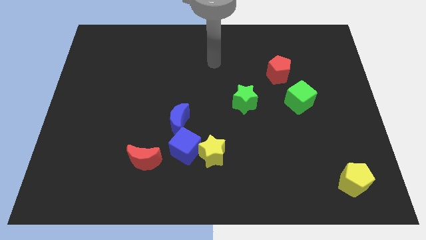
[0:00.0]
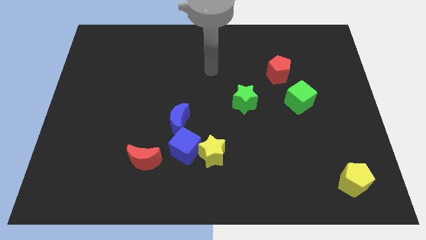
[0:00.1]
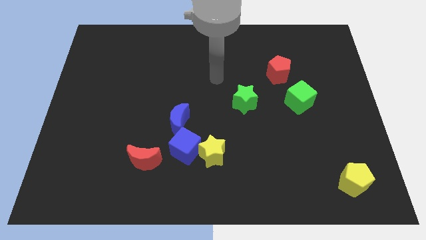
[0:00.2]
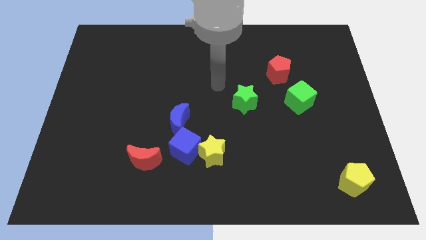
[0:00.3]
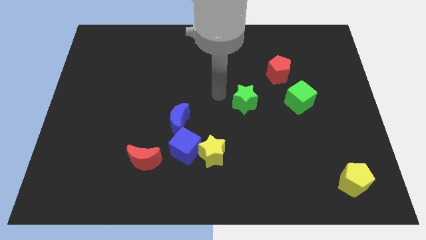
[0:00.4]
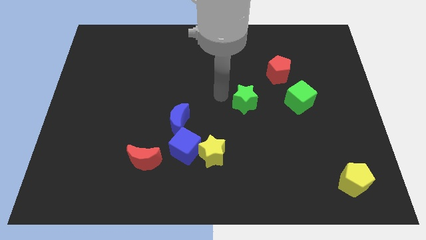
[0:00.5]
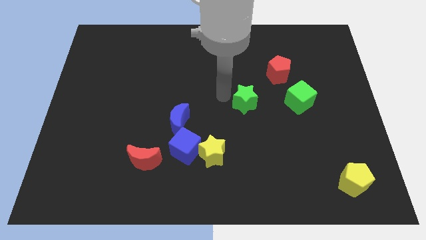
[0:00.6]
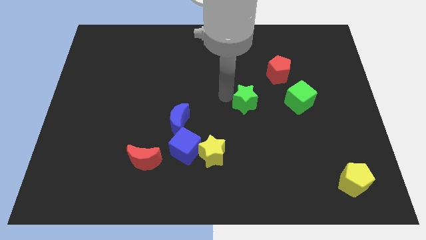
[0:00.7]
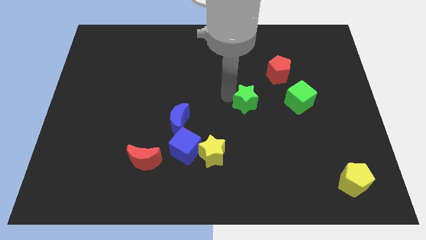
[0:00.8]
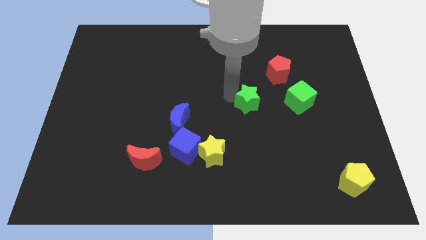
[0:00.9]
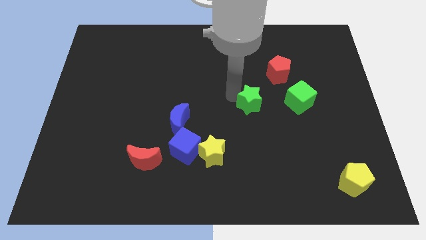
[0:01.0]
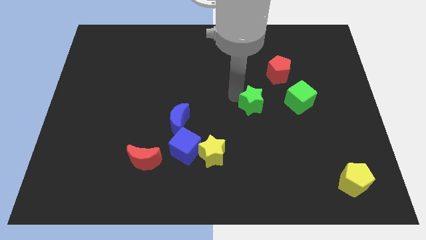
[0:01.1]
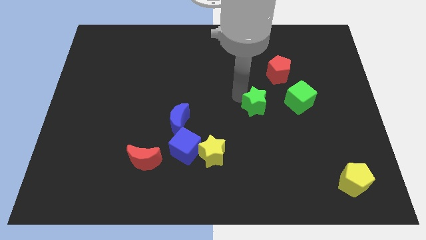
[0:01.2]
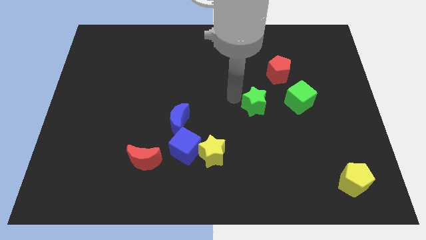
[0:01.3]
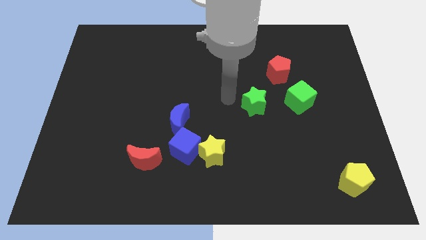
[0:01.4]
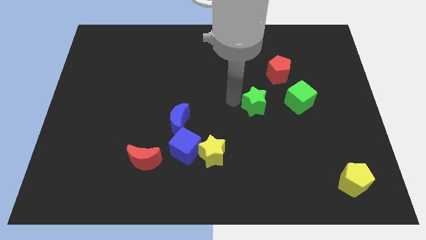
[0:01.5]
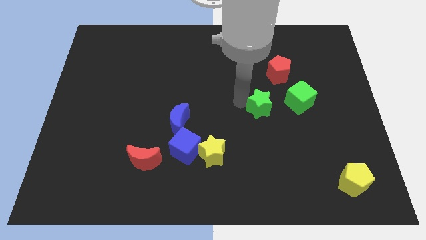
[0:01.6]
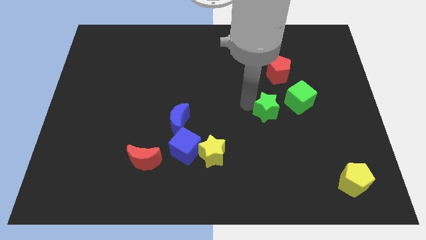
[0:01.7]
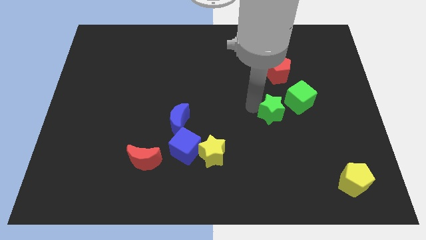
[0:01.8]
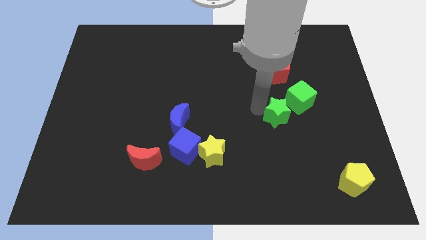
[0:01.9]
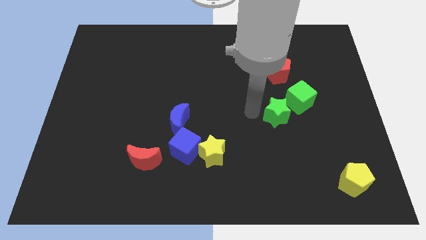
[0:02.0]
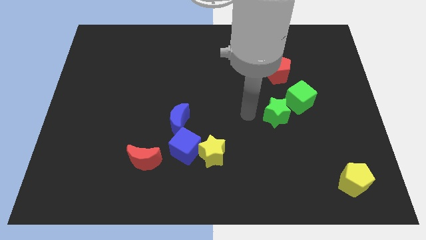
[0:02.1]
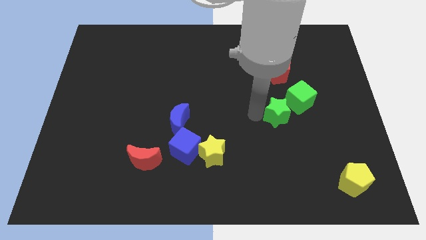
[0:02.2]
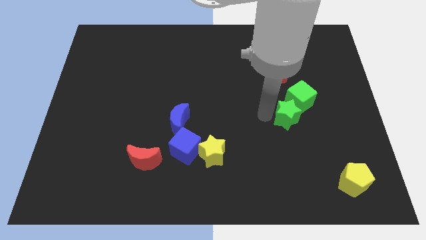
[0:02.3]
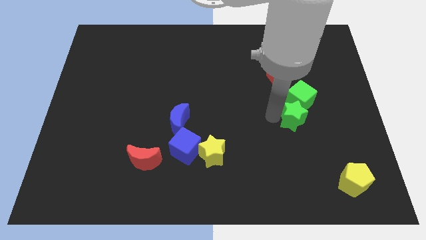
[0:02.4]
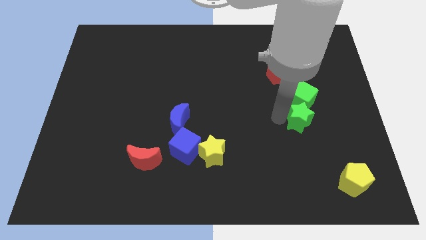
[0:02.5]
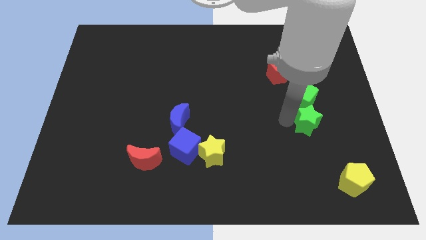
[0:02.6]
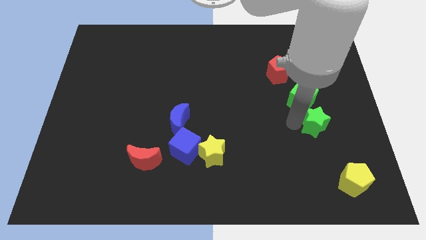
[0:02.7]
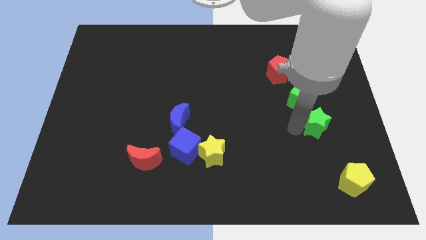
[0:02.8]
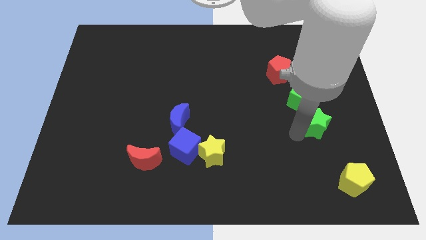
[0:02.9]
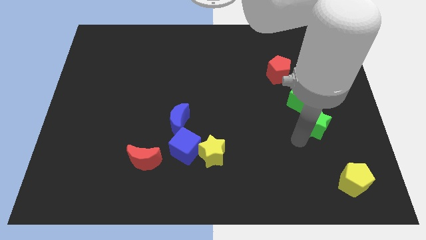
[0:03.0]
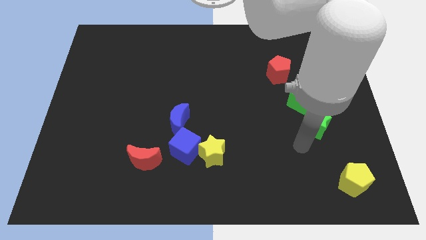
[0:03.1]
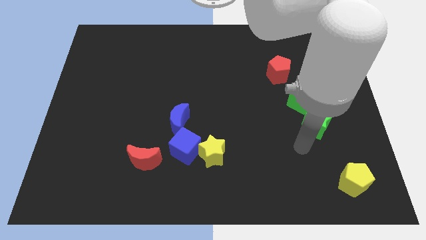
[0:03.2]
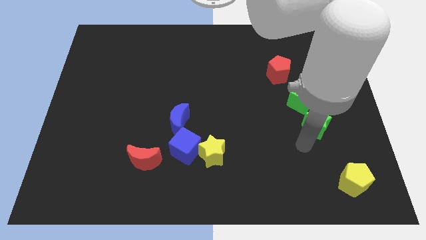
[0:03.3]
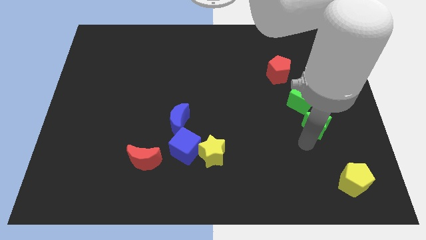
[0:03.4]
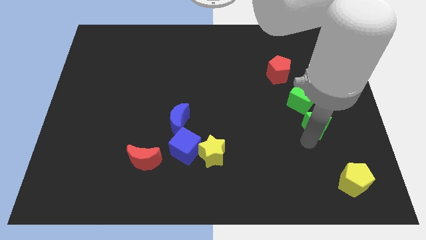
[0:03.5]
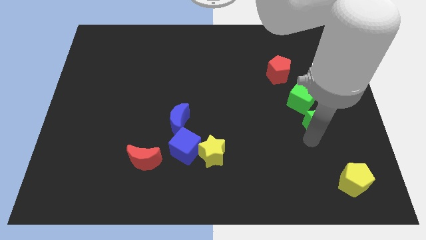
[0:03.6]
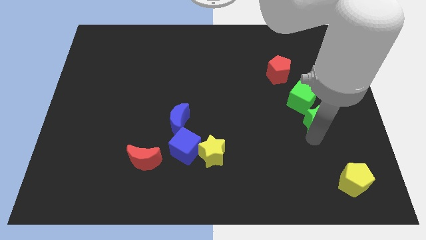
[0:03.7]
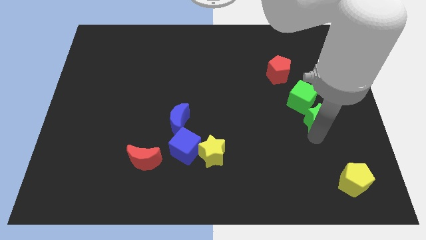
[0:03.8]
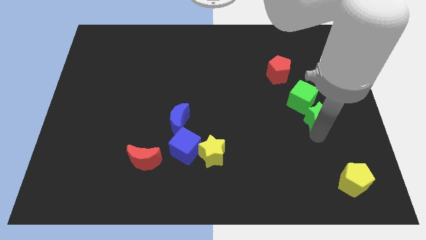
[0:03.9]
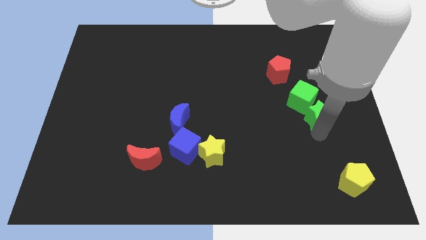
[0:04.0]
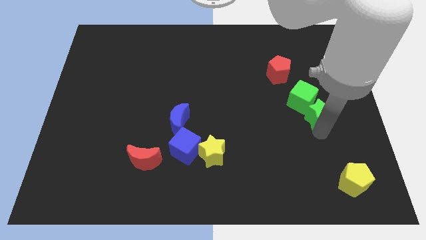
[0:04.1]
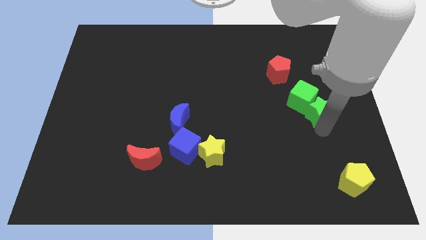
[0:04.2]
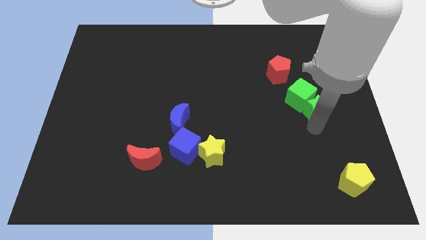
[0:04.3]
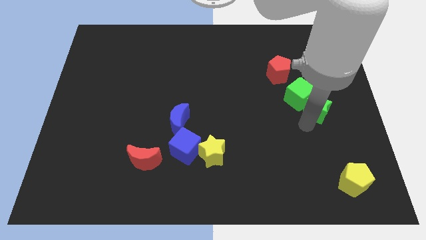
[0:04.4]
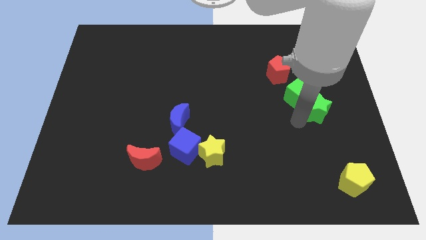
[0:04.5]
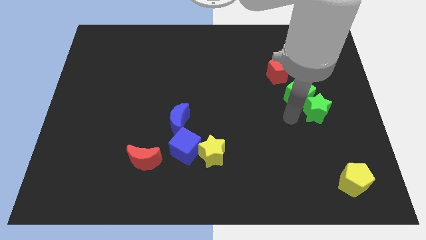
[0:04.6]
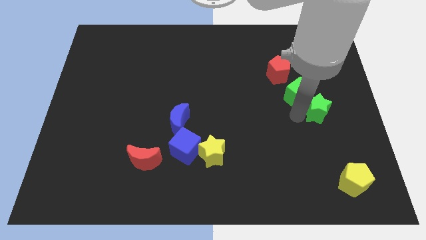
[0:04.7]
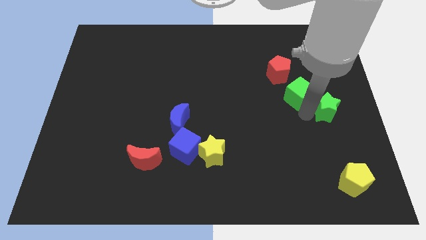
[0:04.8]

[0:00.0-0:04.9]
move the green star to the right side

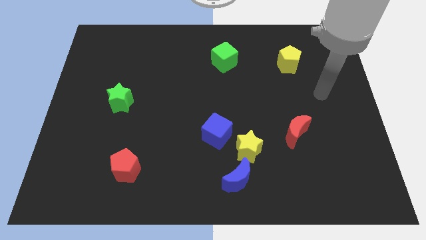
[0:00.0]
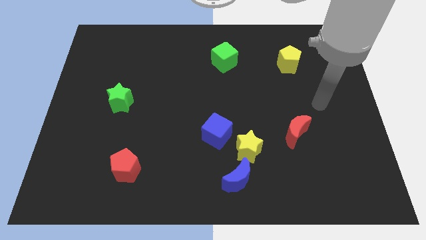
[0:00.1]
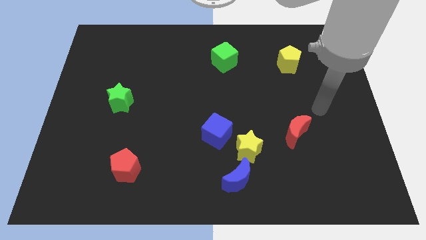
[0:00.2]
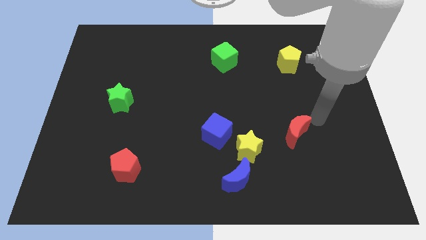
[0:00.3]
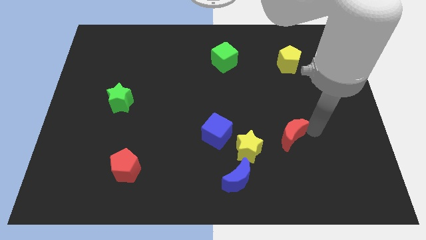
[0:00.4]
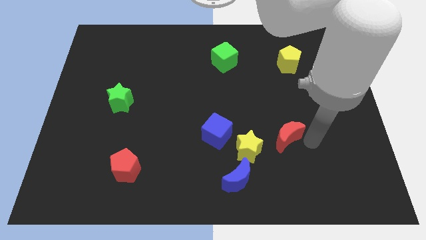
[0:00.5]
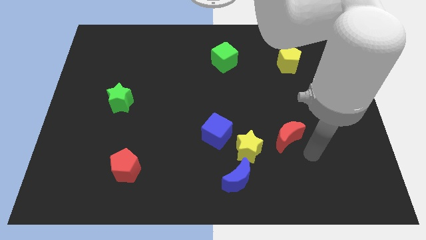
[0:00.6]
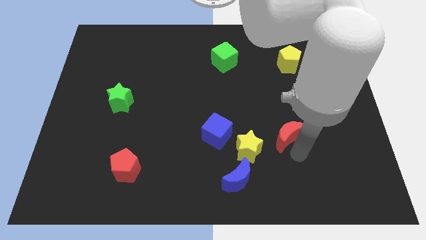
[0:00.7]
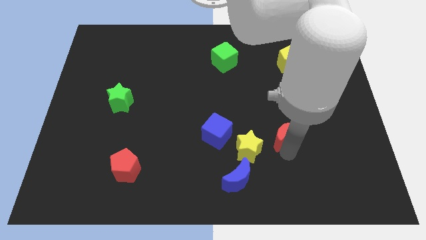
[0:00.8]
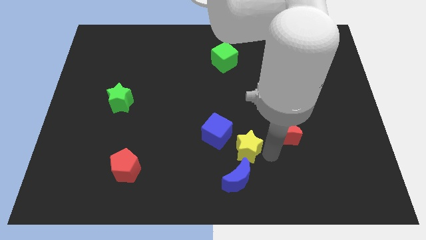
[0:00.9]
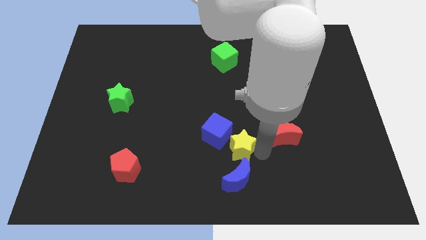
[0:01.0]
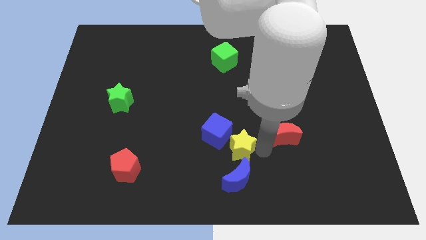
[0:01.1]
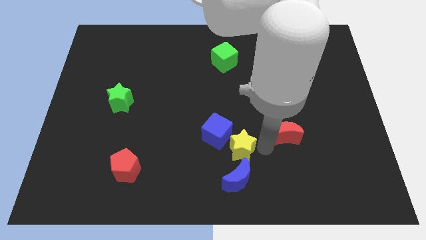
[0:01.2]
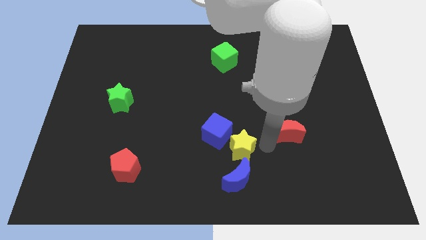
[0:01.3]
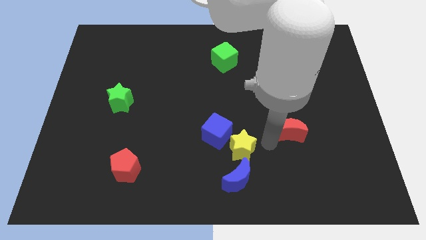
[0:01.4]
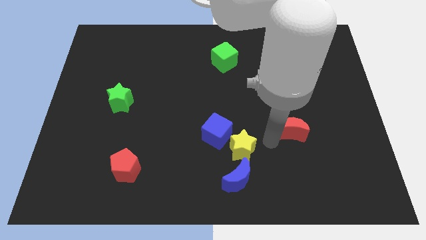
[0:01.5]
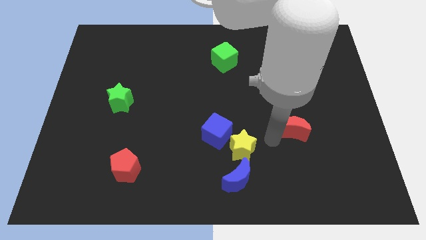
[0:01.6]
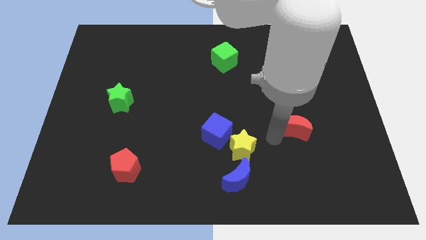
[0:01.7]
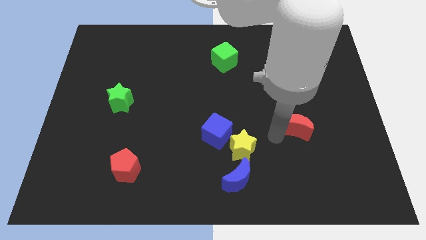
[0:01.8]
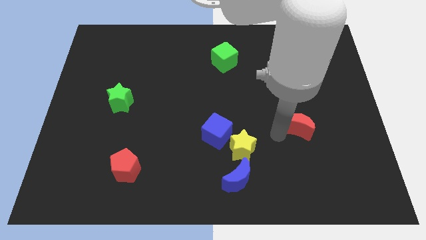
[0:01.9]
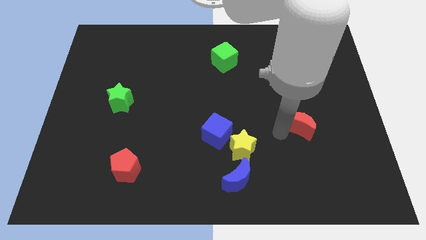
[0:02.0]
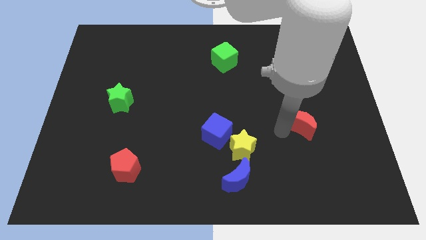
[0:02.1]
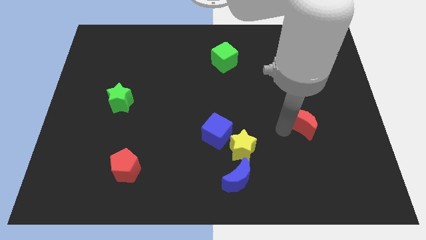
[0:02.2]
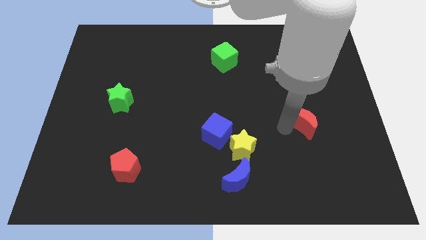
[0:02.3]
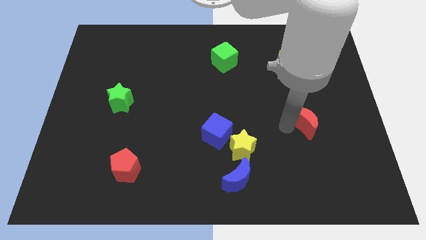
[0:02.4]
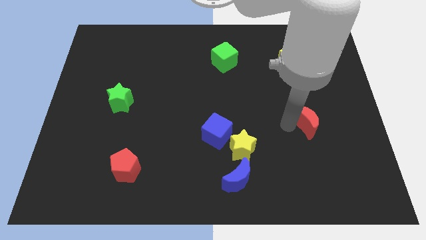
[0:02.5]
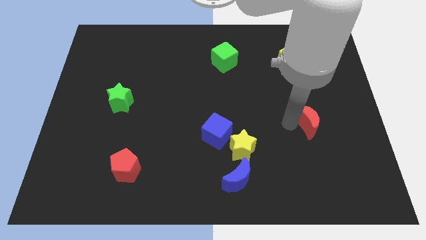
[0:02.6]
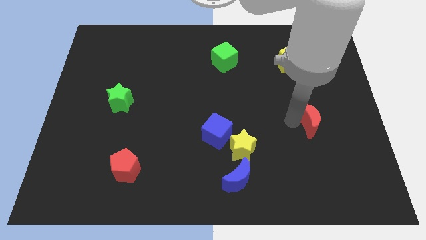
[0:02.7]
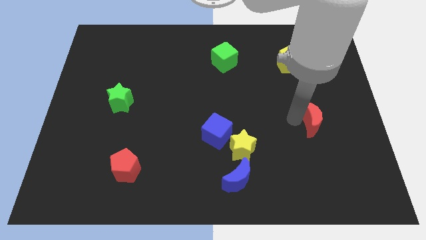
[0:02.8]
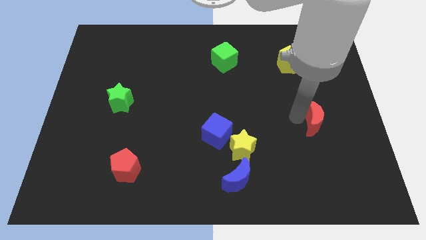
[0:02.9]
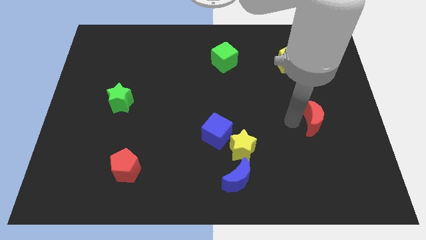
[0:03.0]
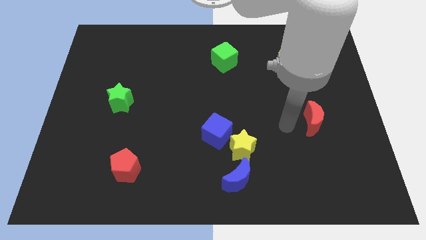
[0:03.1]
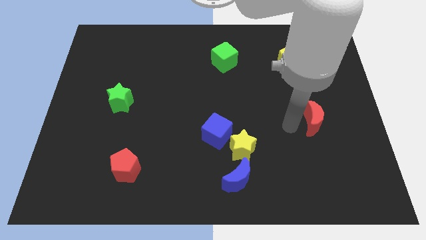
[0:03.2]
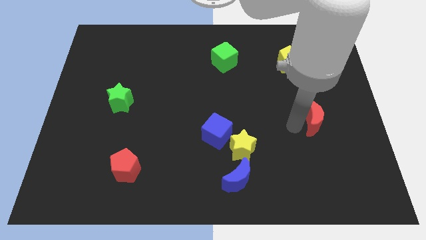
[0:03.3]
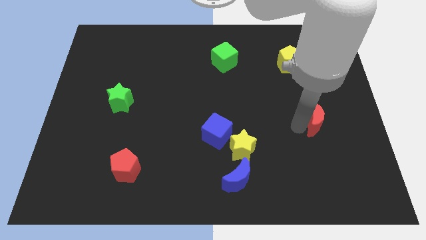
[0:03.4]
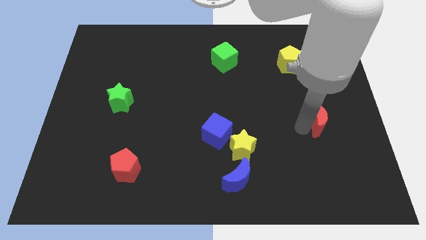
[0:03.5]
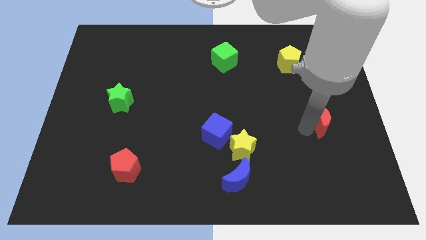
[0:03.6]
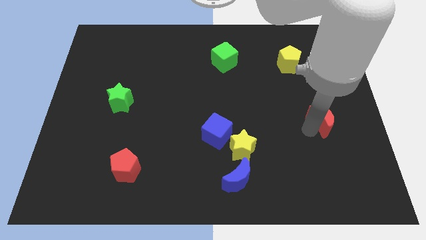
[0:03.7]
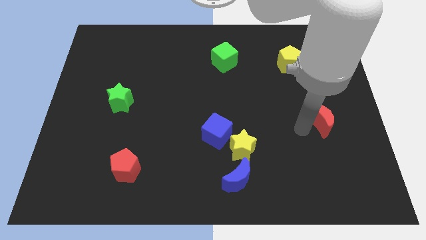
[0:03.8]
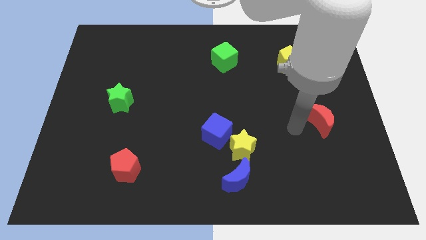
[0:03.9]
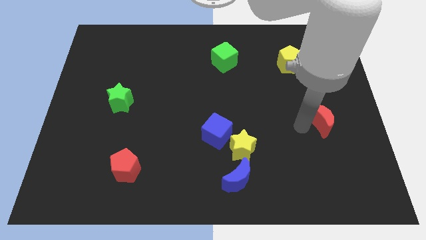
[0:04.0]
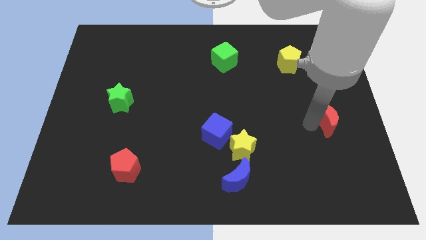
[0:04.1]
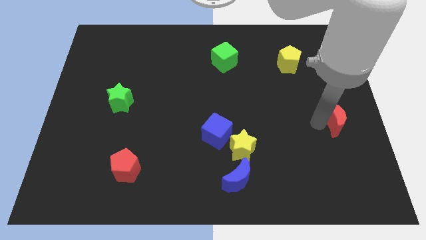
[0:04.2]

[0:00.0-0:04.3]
slide the red moon to the right side of the board
